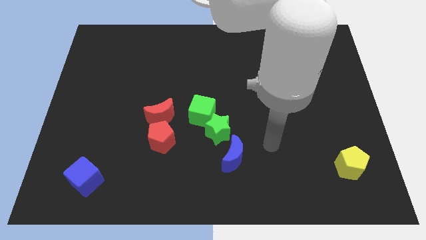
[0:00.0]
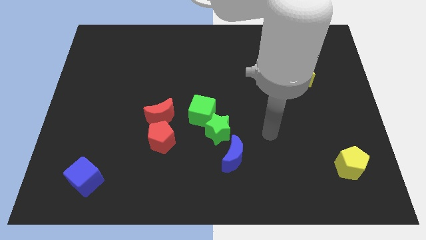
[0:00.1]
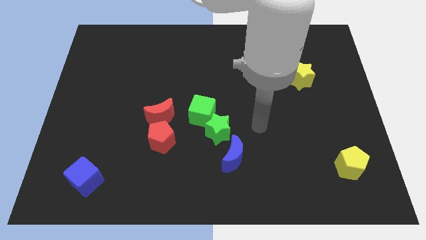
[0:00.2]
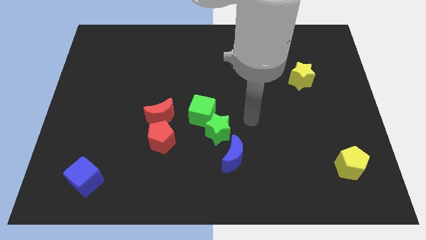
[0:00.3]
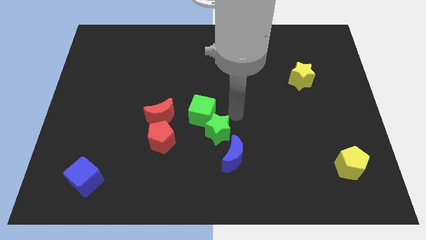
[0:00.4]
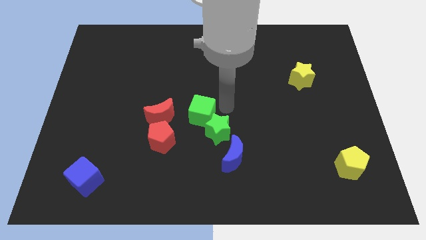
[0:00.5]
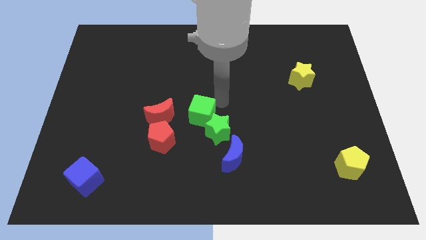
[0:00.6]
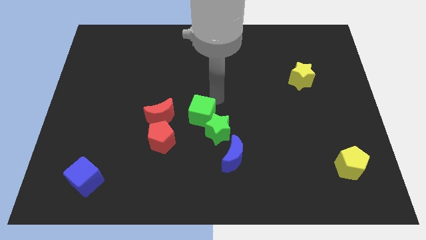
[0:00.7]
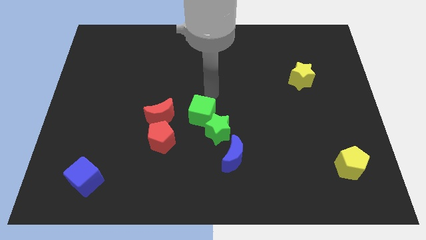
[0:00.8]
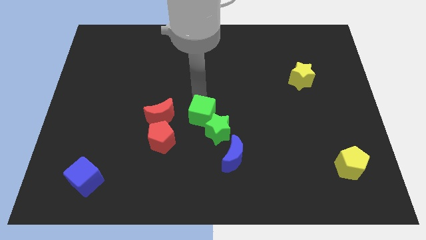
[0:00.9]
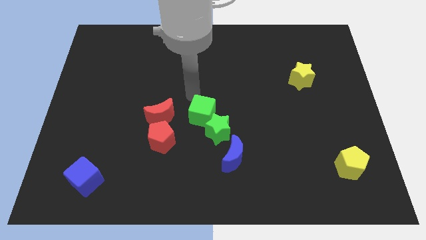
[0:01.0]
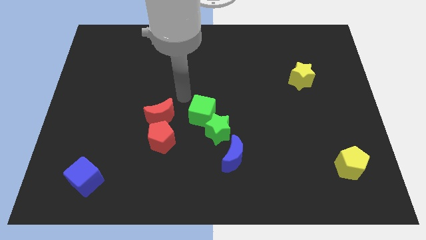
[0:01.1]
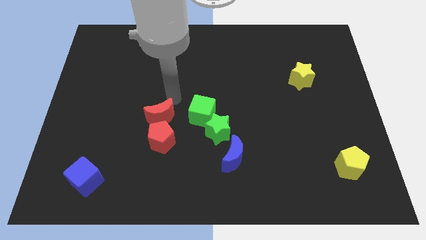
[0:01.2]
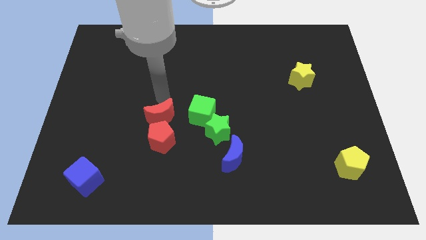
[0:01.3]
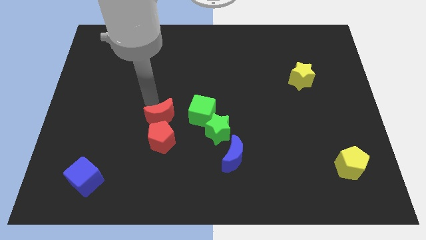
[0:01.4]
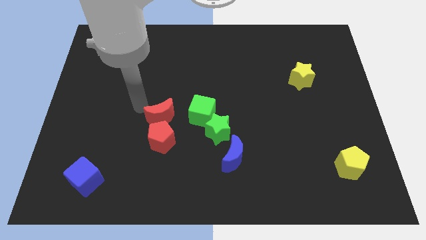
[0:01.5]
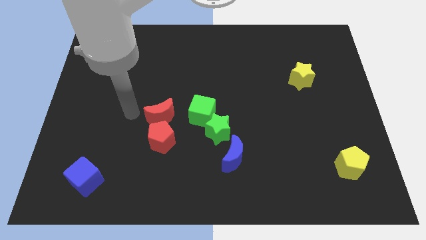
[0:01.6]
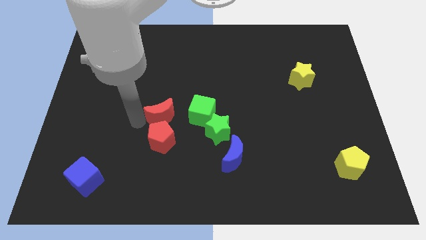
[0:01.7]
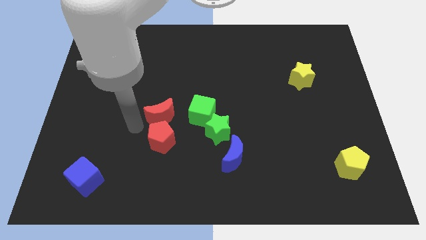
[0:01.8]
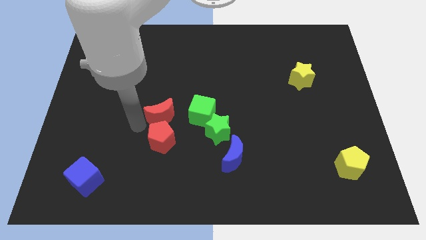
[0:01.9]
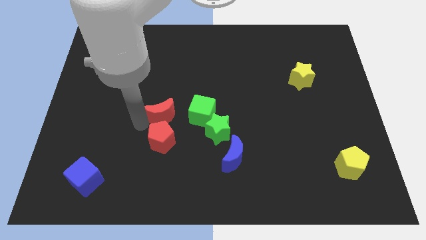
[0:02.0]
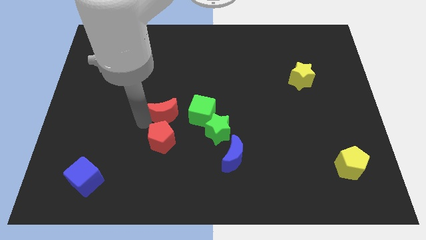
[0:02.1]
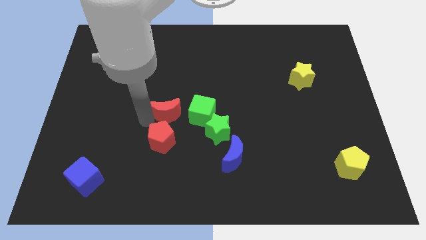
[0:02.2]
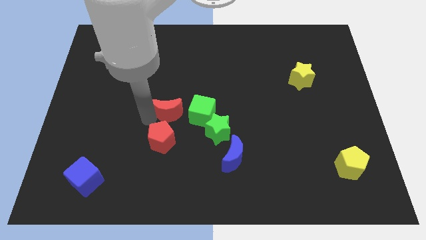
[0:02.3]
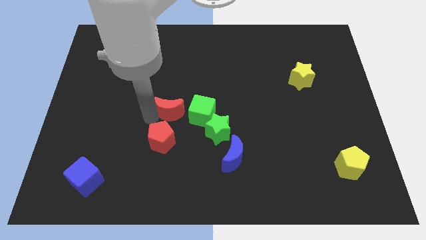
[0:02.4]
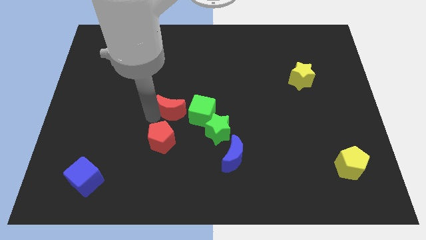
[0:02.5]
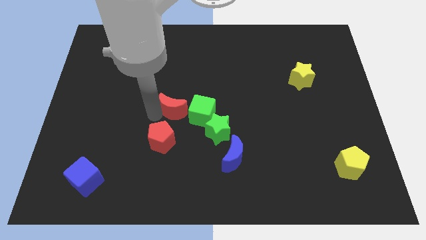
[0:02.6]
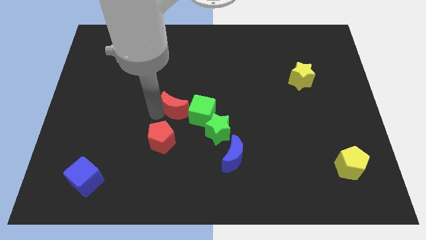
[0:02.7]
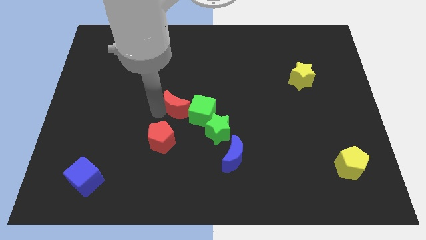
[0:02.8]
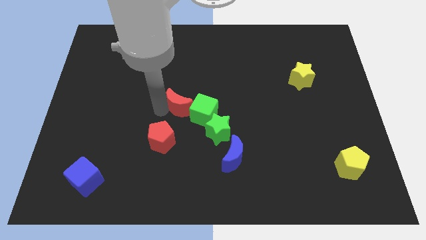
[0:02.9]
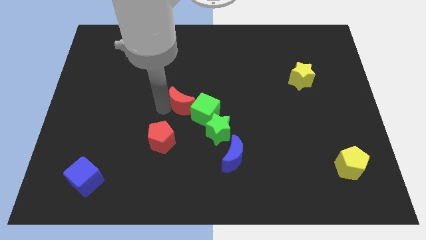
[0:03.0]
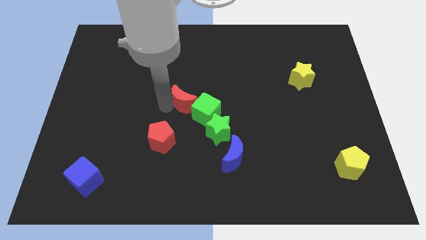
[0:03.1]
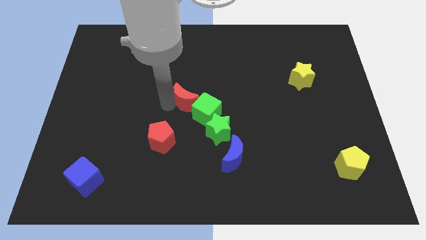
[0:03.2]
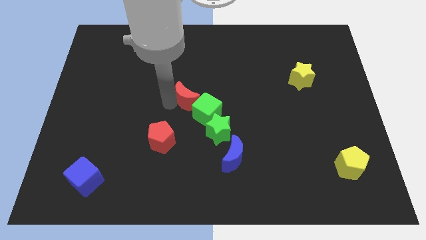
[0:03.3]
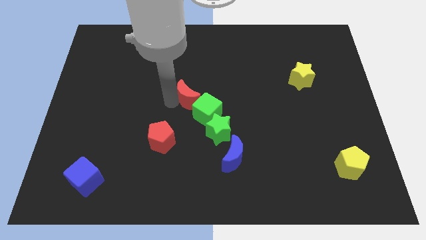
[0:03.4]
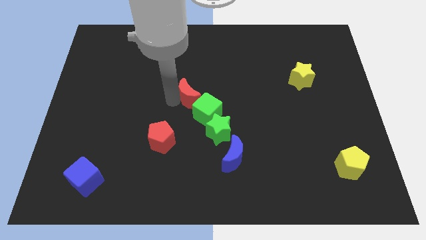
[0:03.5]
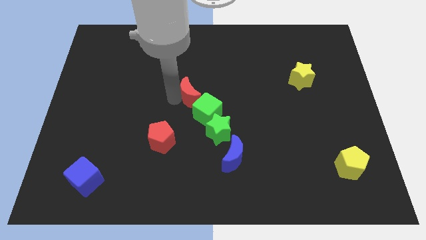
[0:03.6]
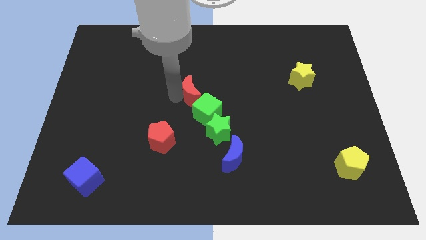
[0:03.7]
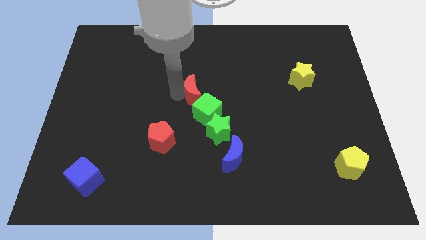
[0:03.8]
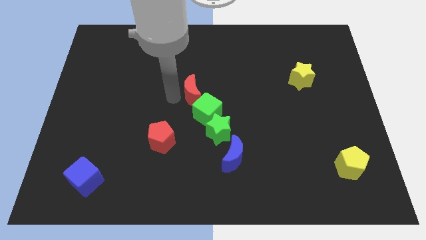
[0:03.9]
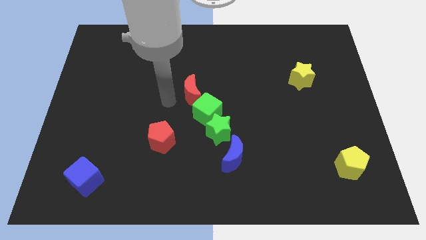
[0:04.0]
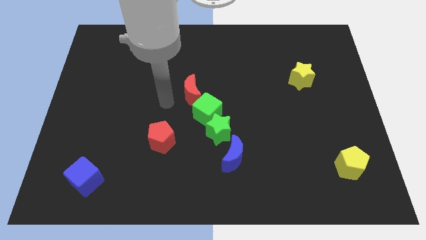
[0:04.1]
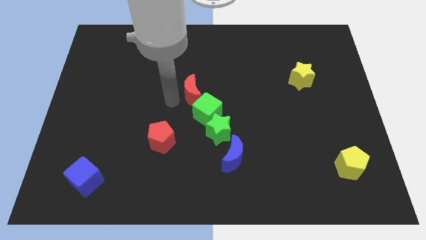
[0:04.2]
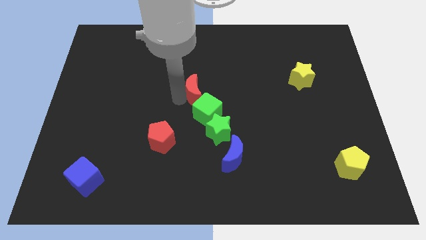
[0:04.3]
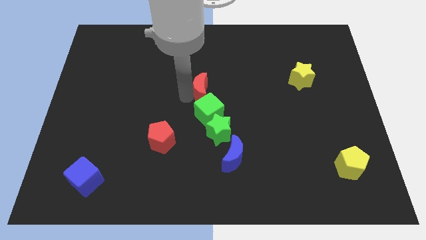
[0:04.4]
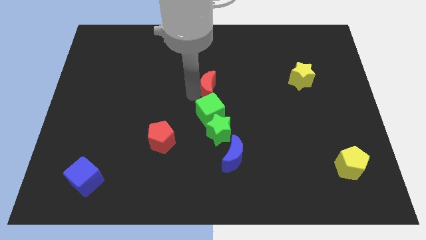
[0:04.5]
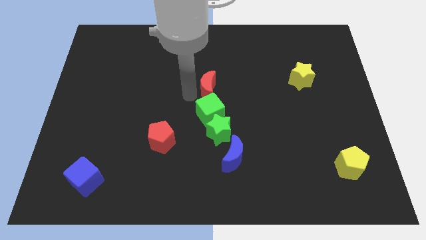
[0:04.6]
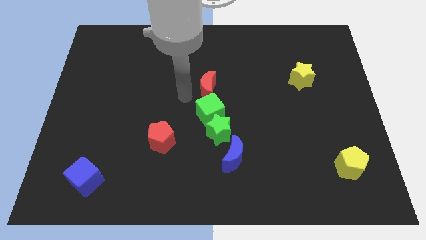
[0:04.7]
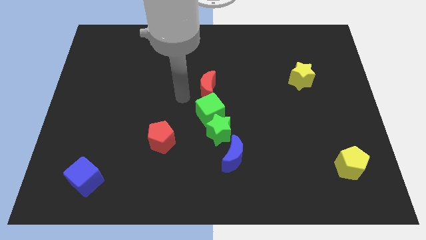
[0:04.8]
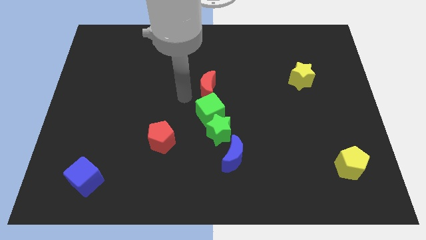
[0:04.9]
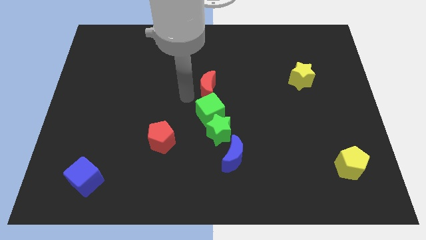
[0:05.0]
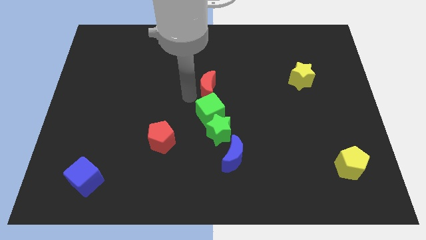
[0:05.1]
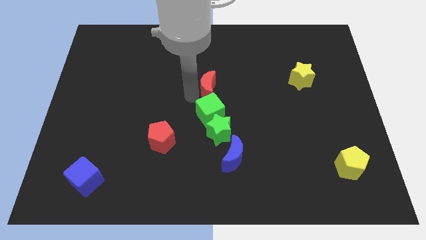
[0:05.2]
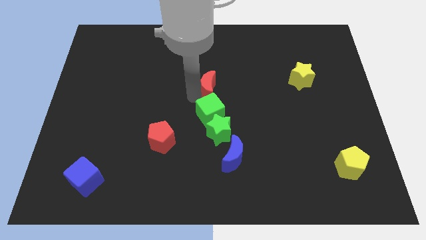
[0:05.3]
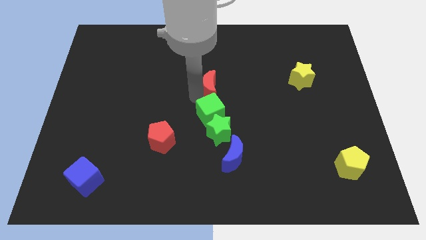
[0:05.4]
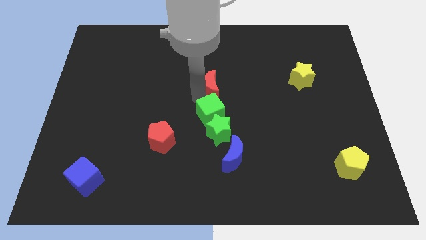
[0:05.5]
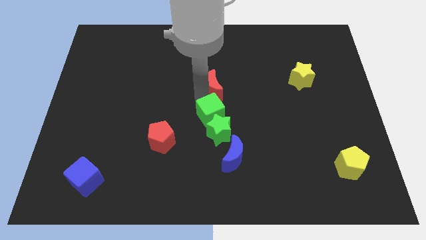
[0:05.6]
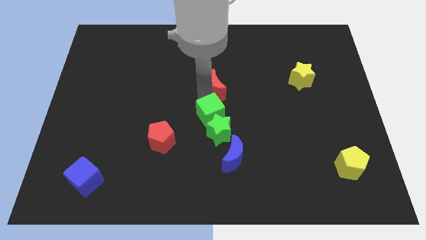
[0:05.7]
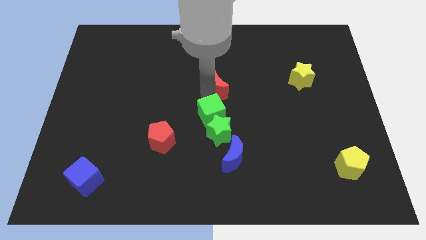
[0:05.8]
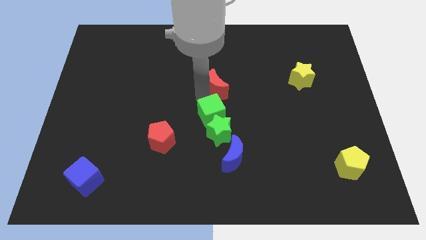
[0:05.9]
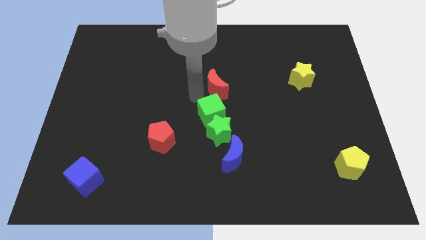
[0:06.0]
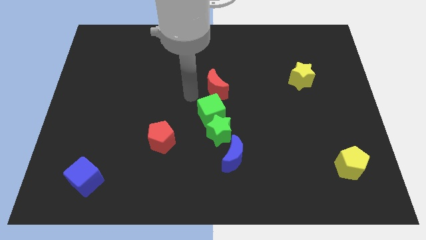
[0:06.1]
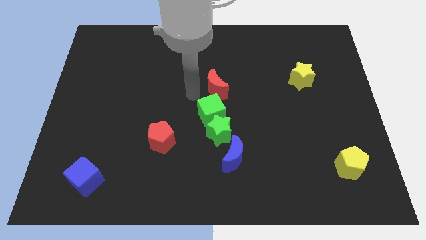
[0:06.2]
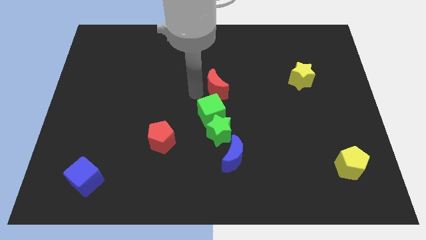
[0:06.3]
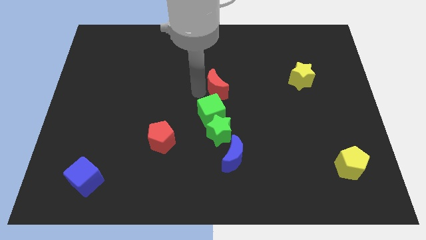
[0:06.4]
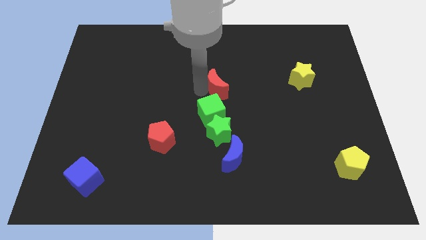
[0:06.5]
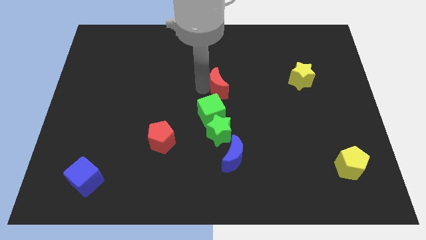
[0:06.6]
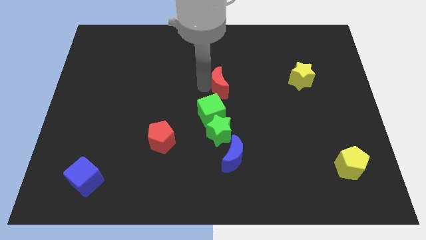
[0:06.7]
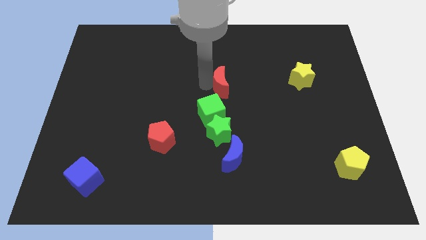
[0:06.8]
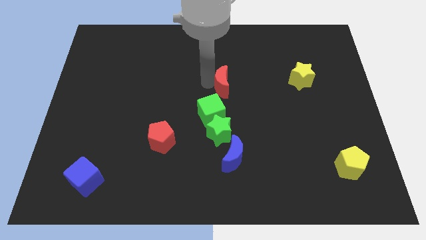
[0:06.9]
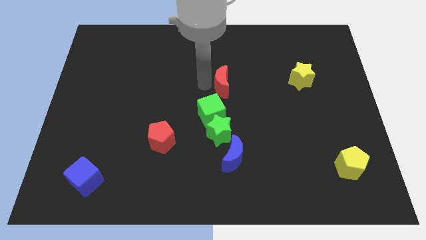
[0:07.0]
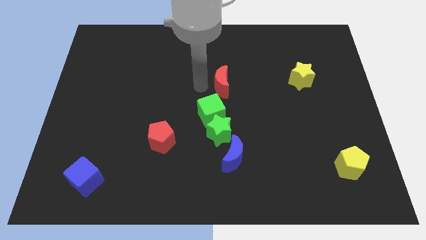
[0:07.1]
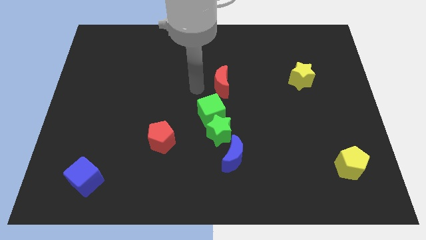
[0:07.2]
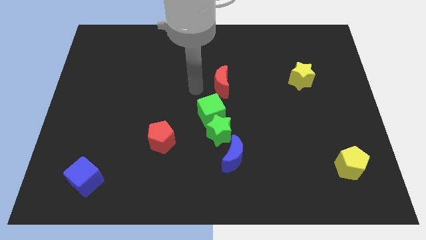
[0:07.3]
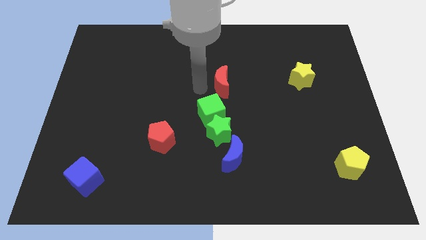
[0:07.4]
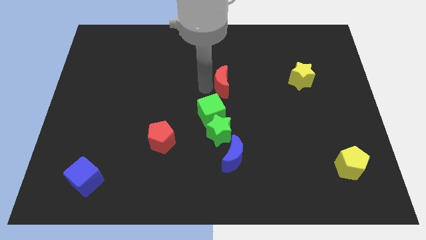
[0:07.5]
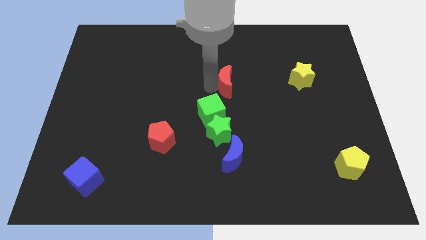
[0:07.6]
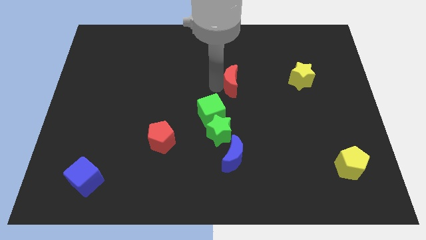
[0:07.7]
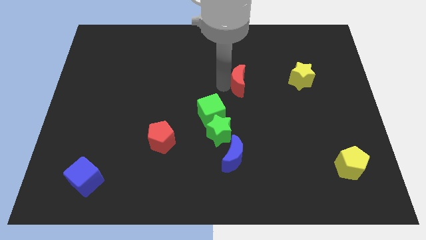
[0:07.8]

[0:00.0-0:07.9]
push the red moon left of the yellow star
